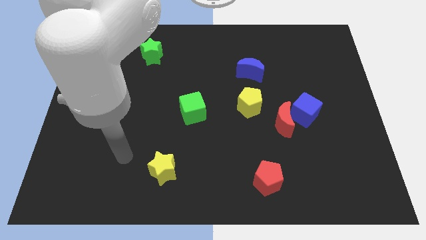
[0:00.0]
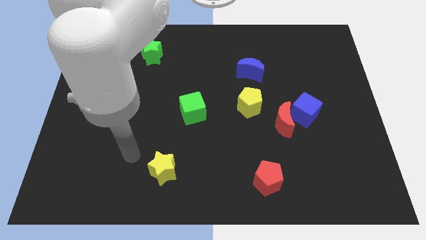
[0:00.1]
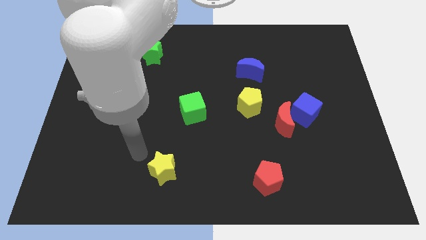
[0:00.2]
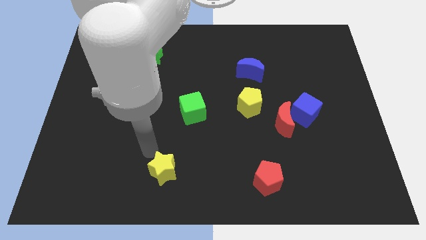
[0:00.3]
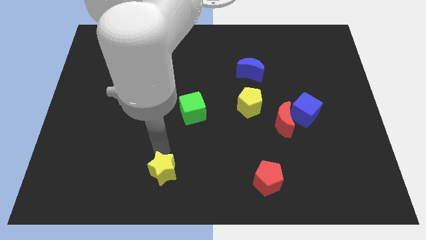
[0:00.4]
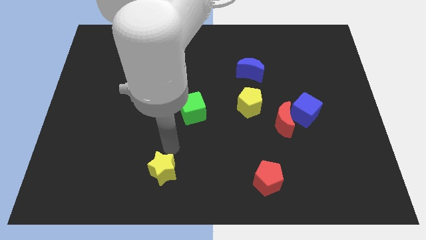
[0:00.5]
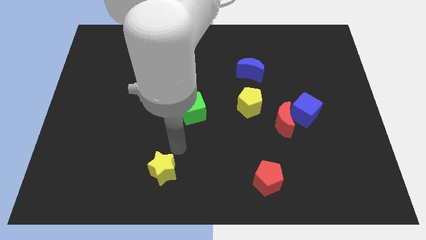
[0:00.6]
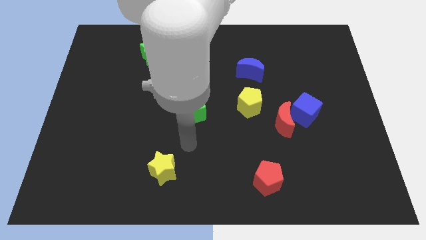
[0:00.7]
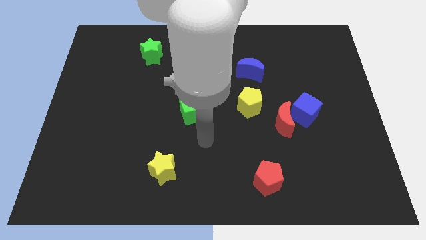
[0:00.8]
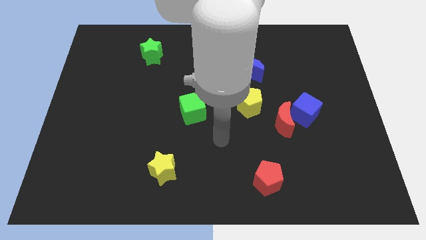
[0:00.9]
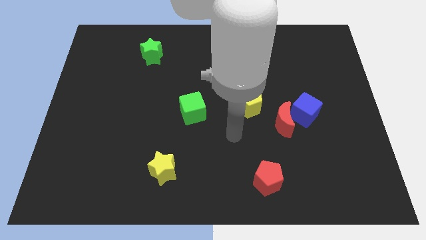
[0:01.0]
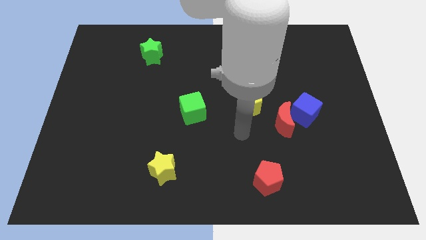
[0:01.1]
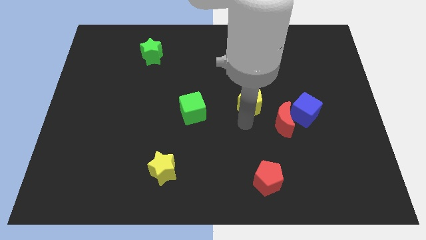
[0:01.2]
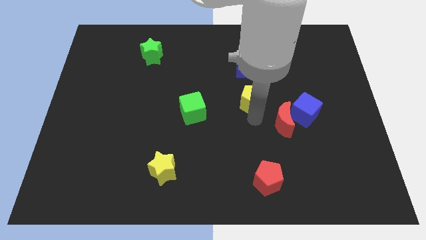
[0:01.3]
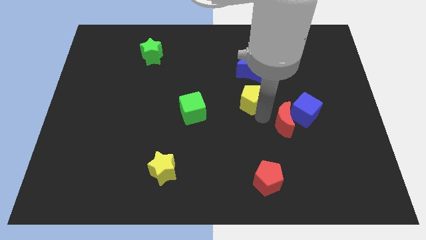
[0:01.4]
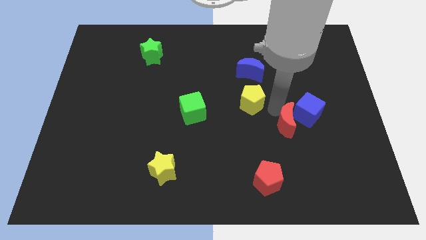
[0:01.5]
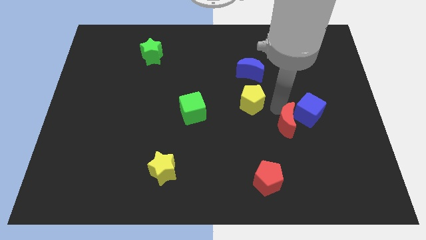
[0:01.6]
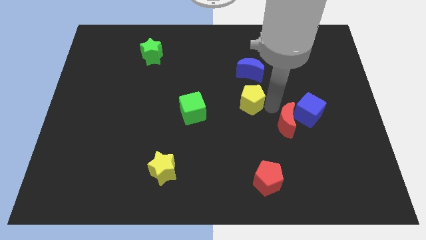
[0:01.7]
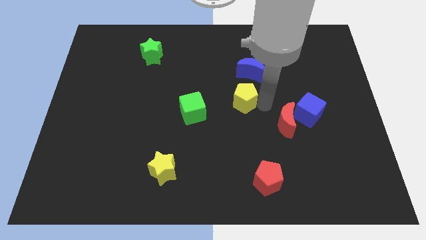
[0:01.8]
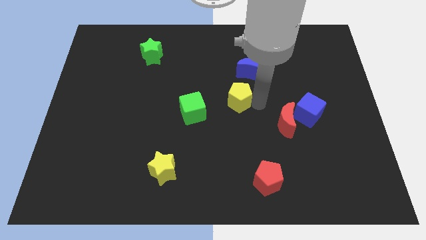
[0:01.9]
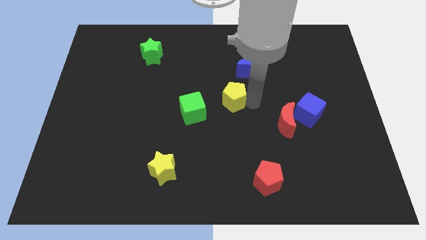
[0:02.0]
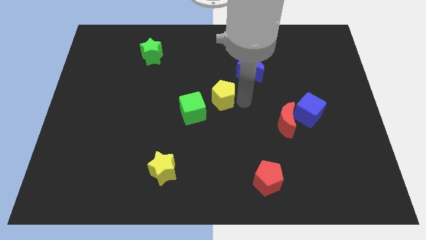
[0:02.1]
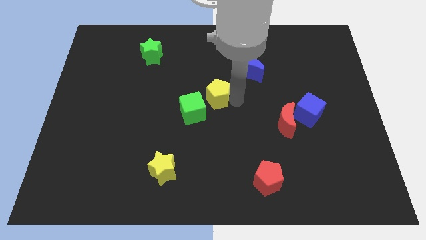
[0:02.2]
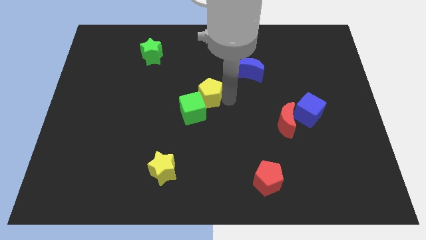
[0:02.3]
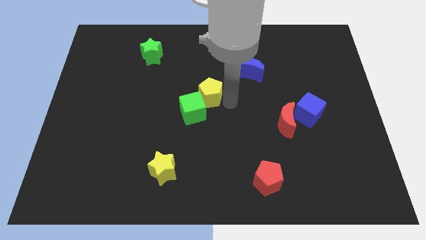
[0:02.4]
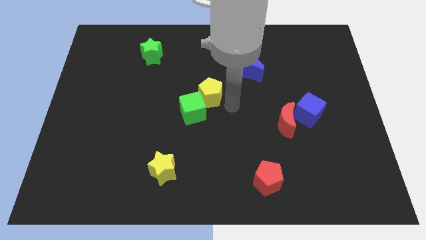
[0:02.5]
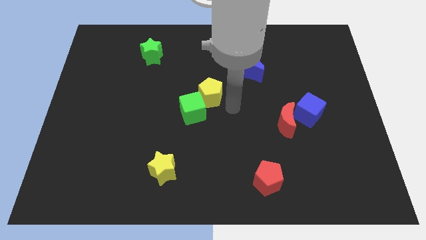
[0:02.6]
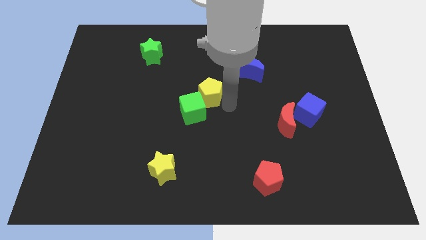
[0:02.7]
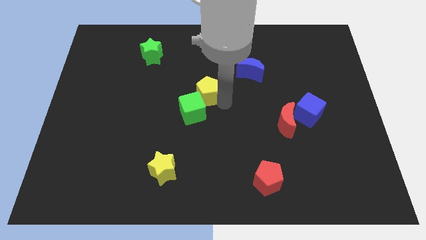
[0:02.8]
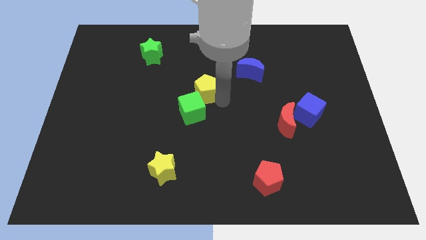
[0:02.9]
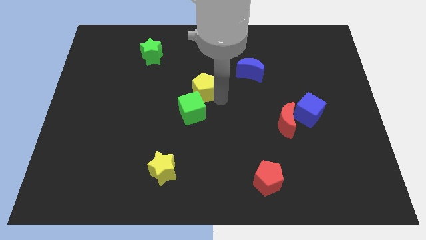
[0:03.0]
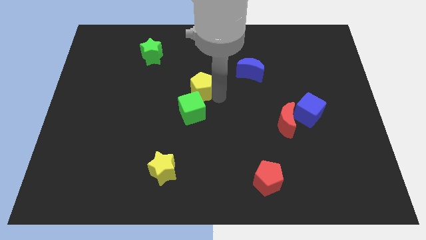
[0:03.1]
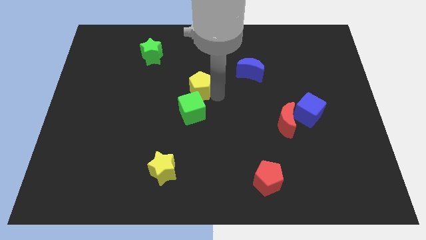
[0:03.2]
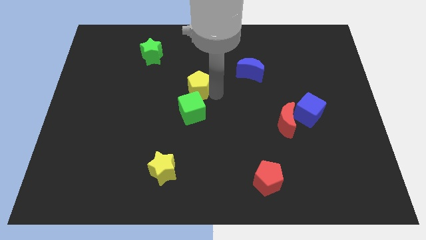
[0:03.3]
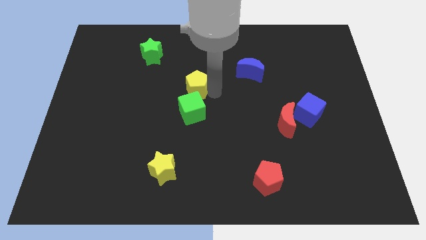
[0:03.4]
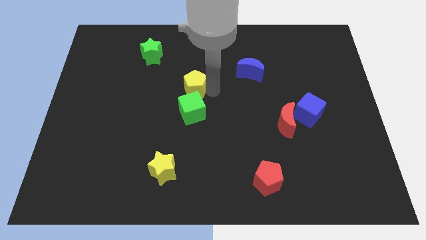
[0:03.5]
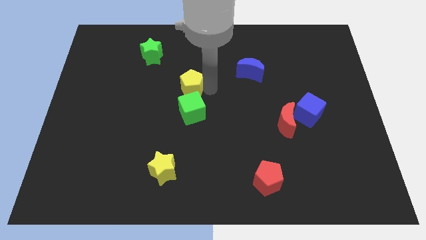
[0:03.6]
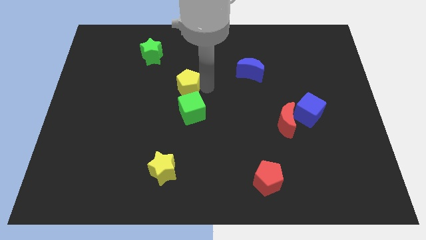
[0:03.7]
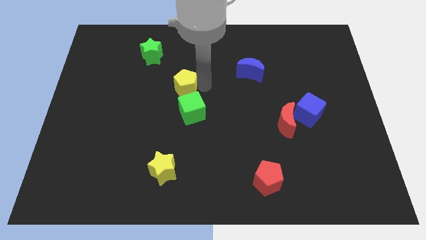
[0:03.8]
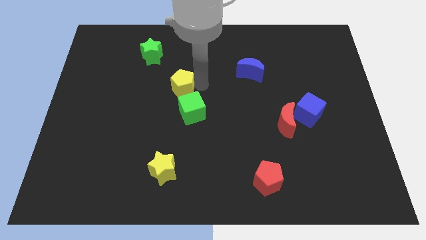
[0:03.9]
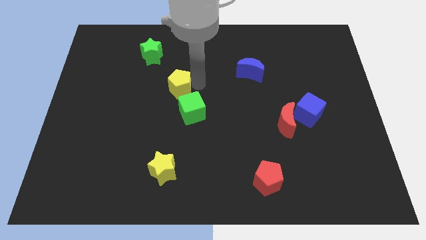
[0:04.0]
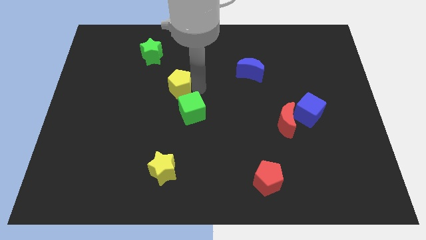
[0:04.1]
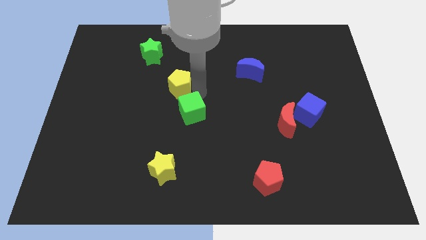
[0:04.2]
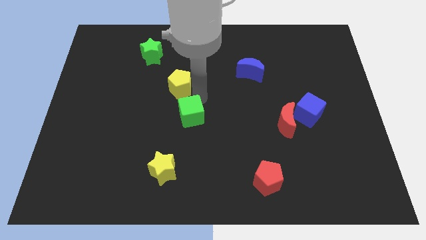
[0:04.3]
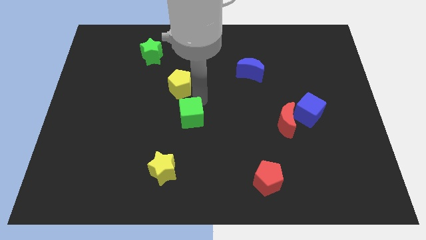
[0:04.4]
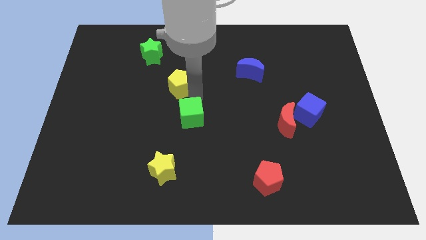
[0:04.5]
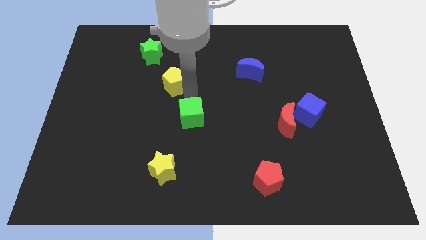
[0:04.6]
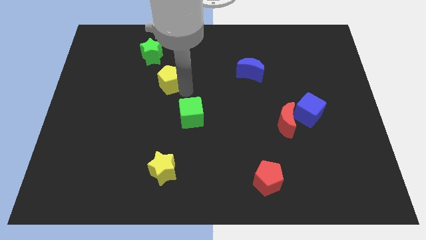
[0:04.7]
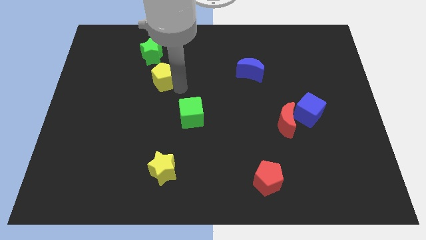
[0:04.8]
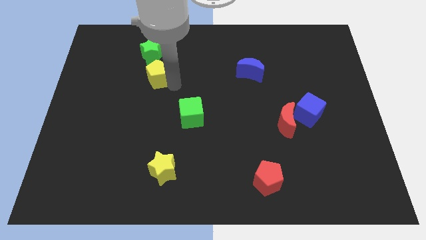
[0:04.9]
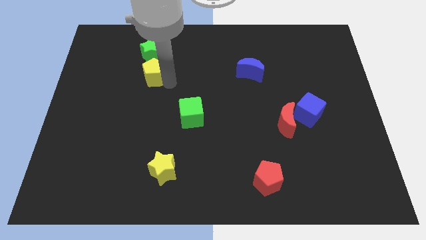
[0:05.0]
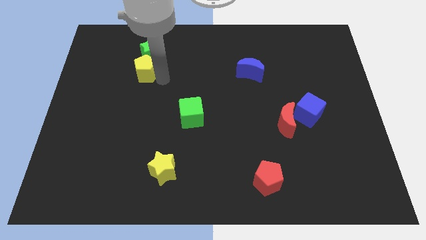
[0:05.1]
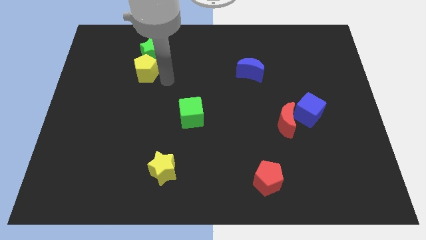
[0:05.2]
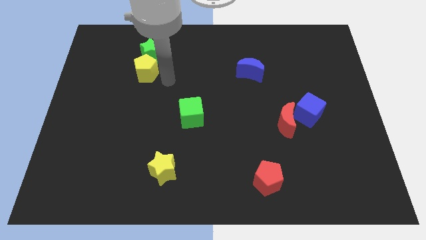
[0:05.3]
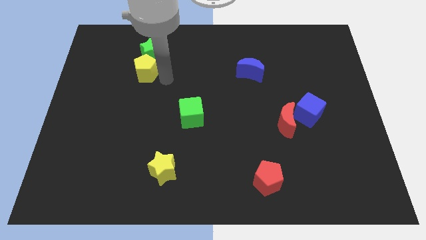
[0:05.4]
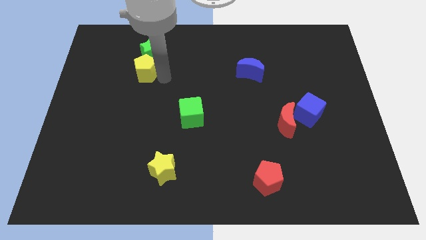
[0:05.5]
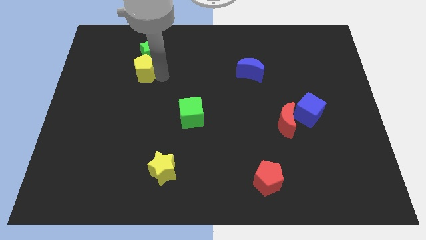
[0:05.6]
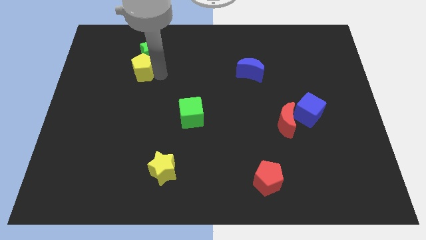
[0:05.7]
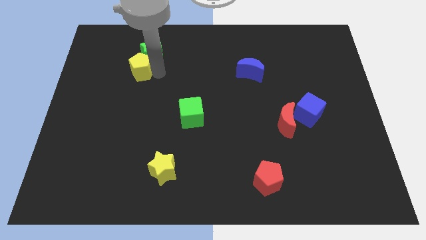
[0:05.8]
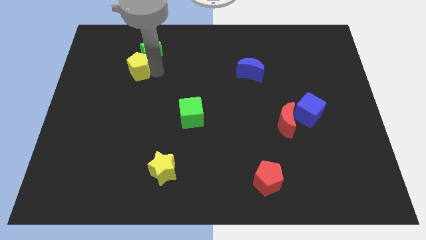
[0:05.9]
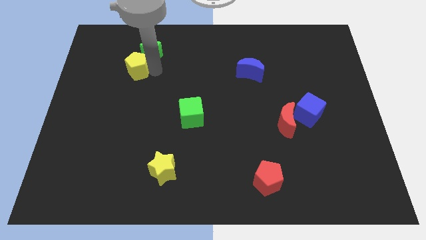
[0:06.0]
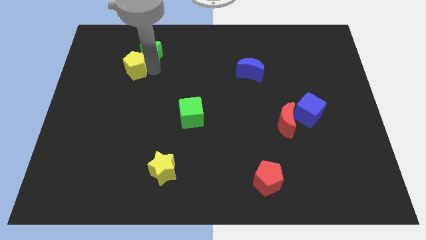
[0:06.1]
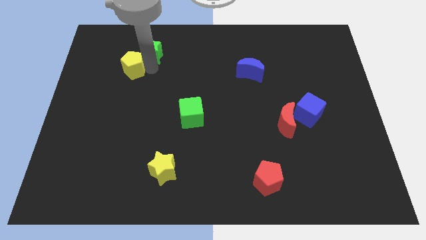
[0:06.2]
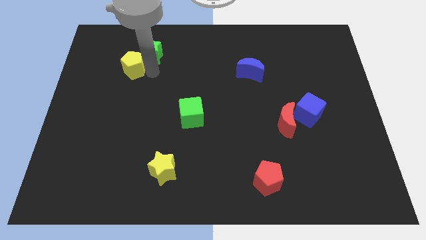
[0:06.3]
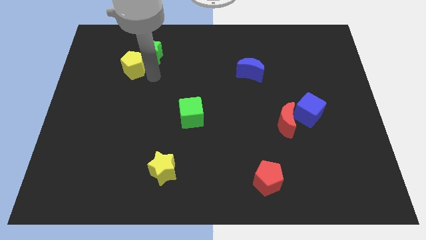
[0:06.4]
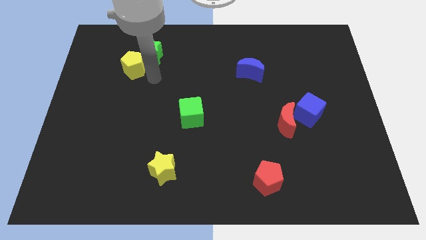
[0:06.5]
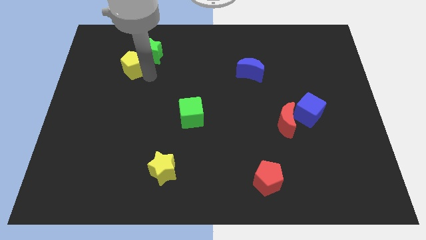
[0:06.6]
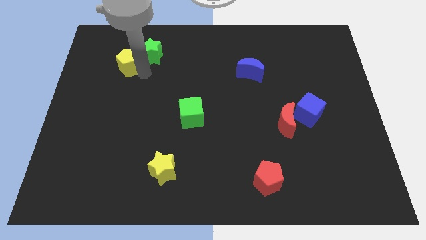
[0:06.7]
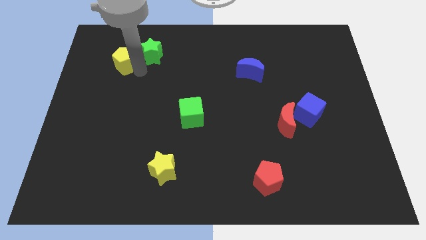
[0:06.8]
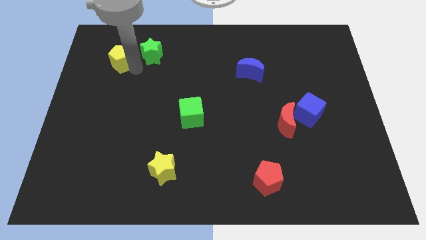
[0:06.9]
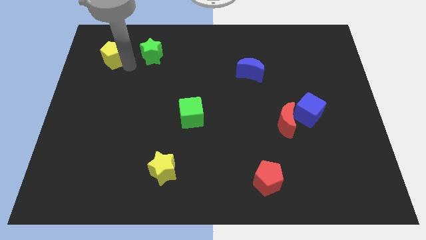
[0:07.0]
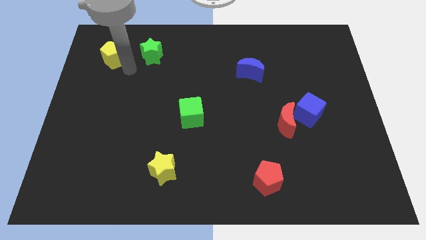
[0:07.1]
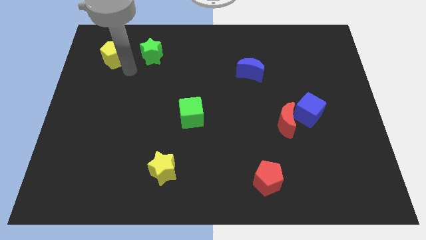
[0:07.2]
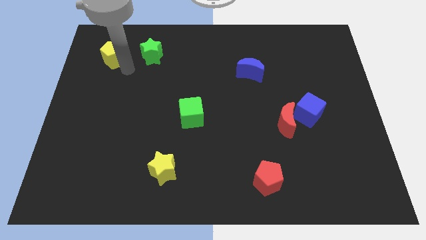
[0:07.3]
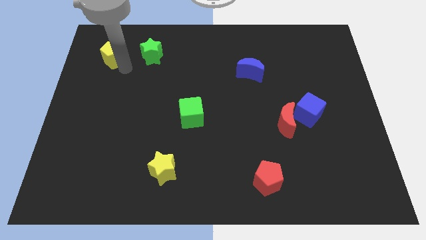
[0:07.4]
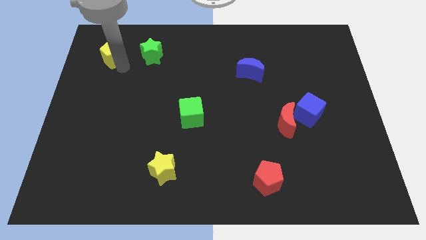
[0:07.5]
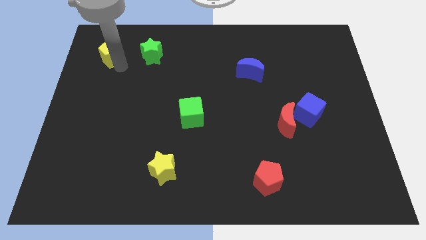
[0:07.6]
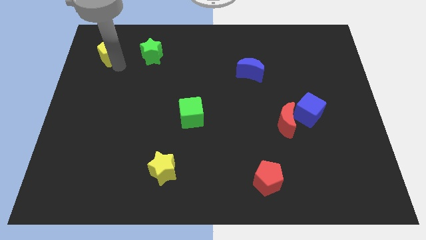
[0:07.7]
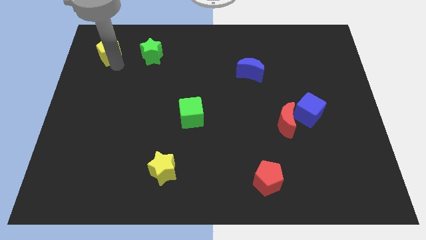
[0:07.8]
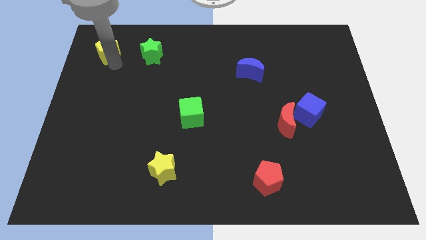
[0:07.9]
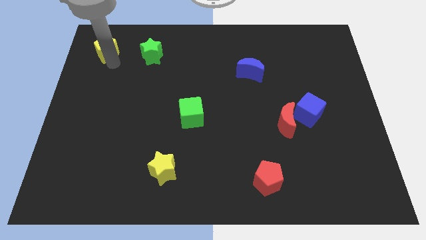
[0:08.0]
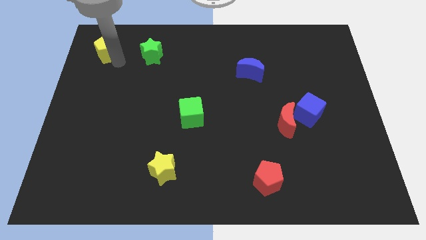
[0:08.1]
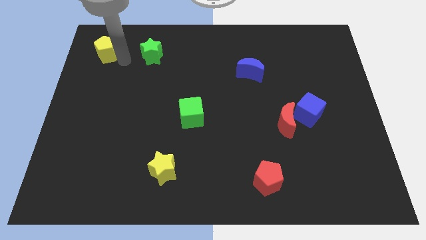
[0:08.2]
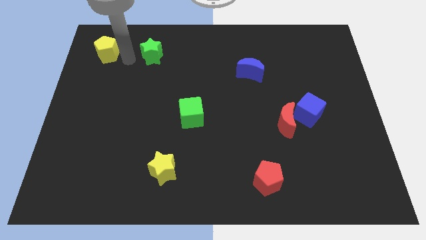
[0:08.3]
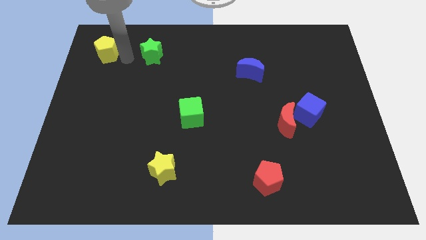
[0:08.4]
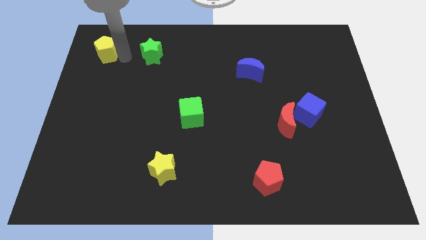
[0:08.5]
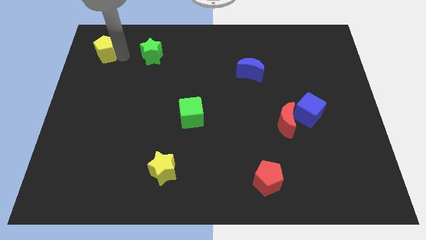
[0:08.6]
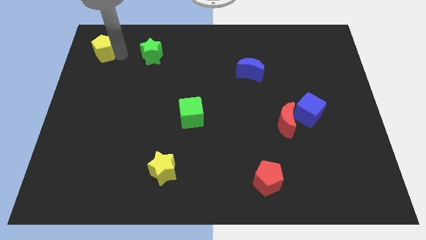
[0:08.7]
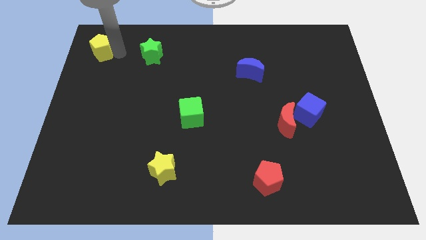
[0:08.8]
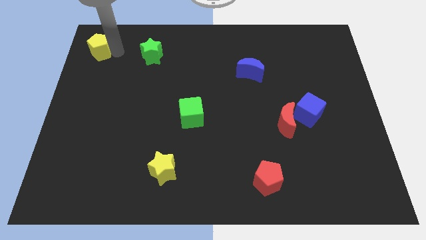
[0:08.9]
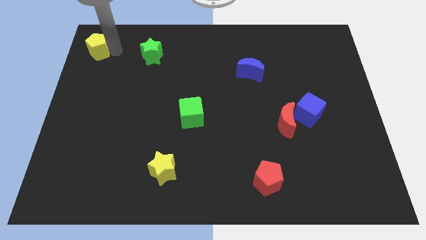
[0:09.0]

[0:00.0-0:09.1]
push the yellow pentagon to the top left corner
